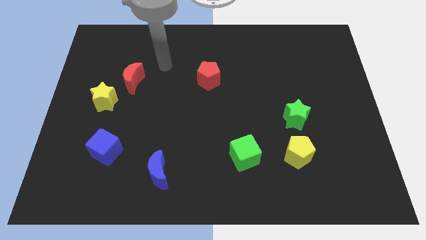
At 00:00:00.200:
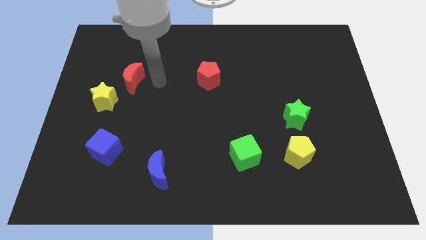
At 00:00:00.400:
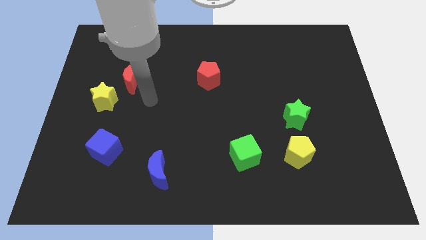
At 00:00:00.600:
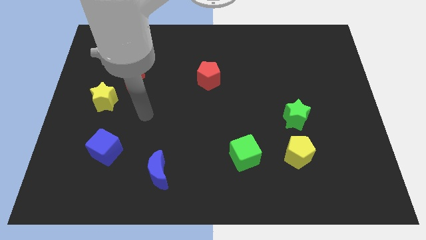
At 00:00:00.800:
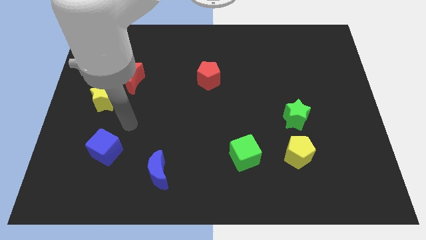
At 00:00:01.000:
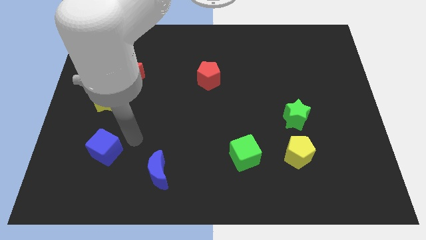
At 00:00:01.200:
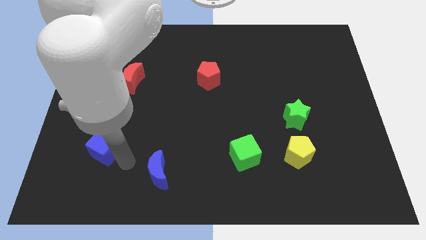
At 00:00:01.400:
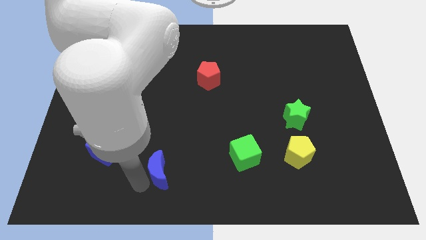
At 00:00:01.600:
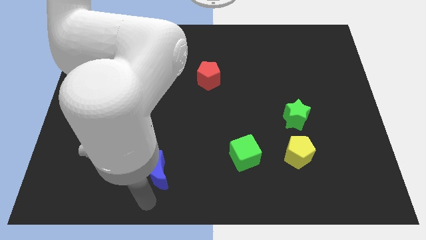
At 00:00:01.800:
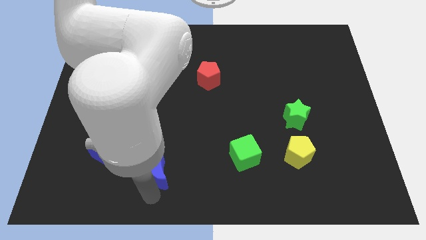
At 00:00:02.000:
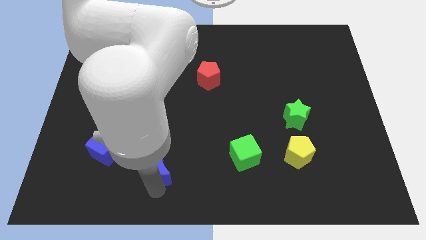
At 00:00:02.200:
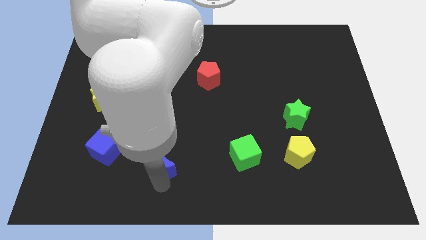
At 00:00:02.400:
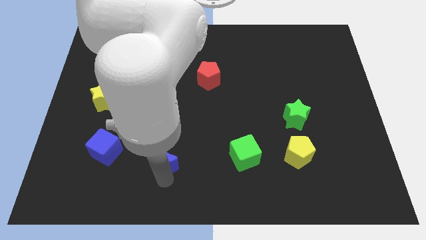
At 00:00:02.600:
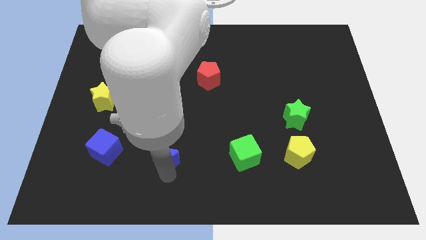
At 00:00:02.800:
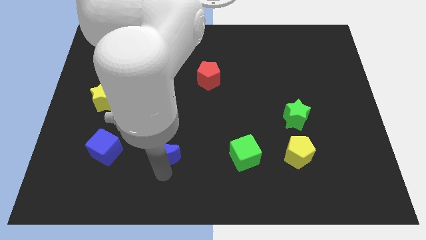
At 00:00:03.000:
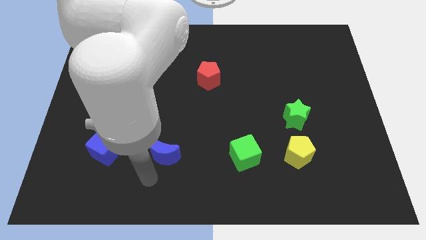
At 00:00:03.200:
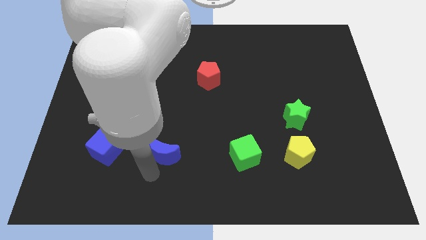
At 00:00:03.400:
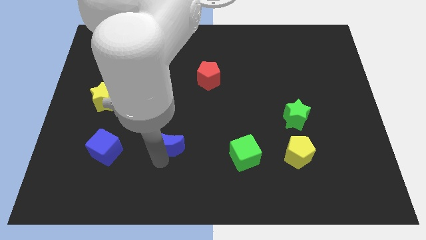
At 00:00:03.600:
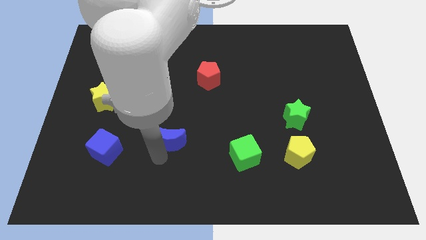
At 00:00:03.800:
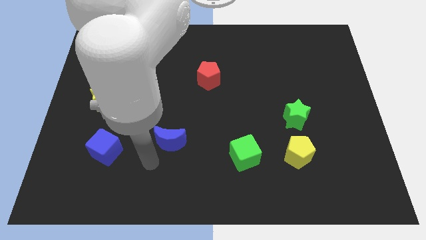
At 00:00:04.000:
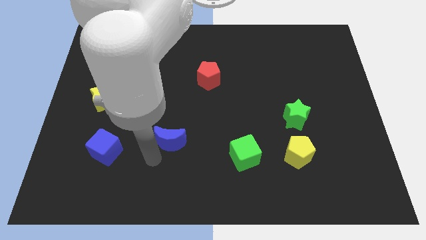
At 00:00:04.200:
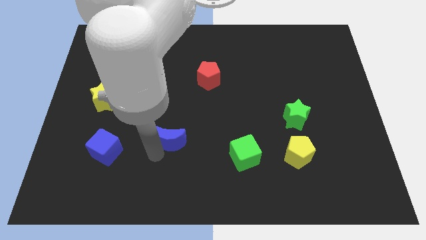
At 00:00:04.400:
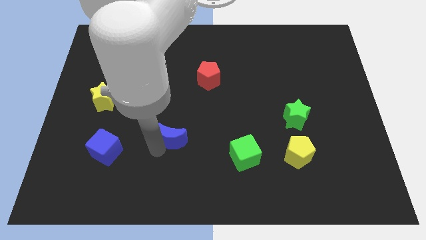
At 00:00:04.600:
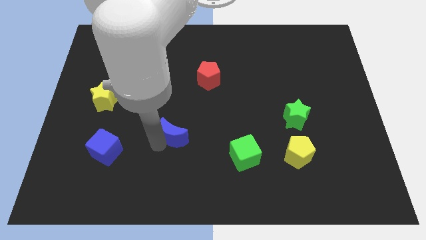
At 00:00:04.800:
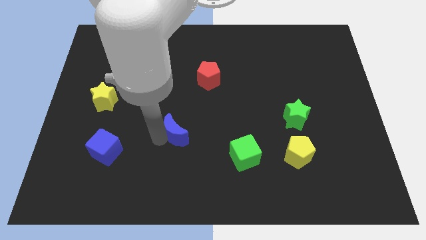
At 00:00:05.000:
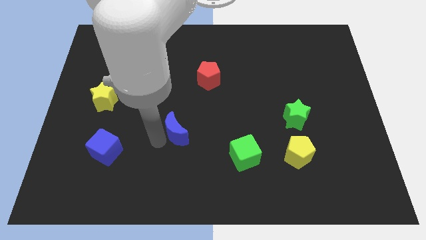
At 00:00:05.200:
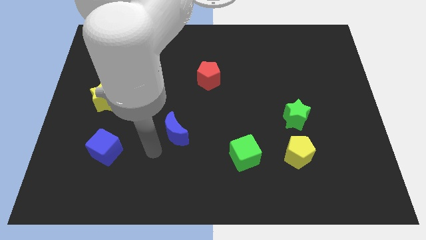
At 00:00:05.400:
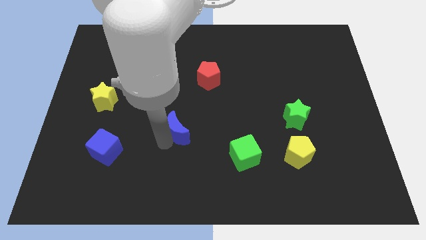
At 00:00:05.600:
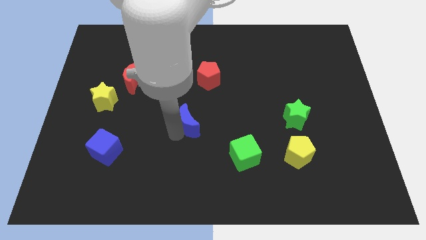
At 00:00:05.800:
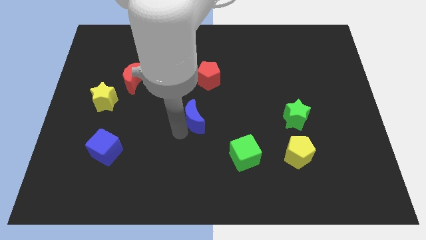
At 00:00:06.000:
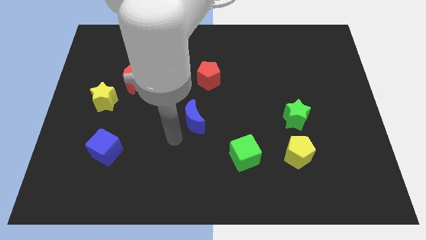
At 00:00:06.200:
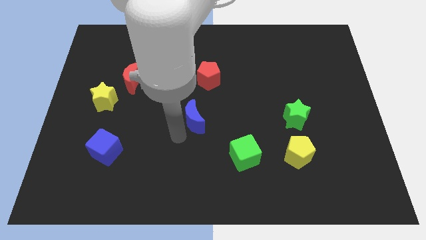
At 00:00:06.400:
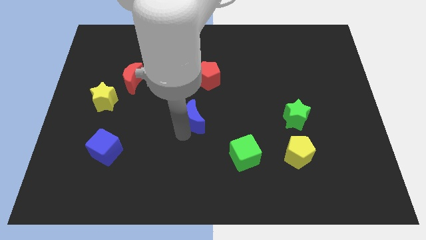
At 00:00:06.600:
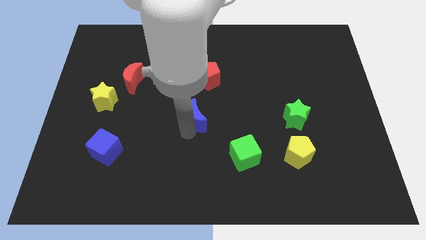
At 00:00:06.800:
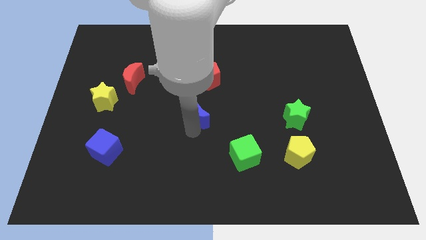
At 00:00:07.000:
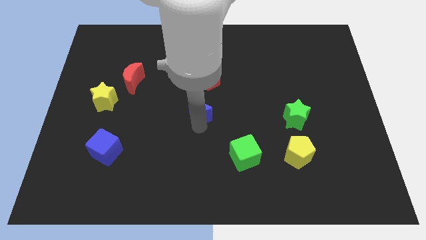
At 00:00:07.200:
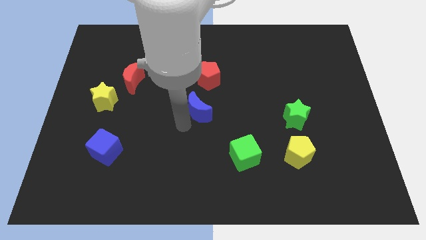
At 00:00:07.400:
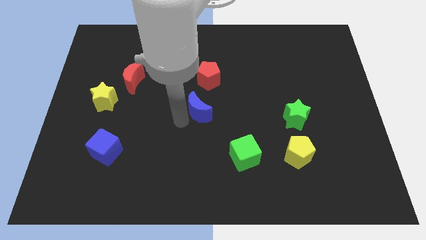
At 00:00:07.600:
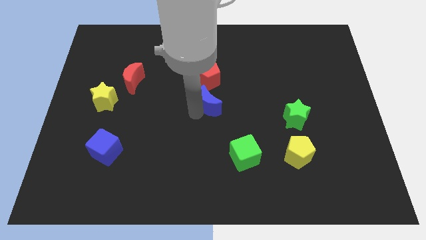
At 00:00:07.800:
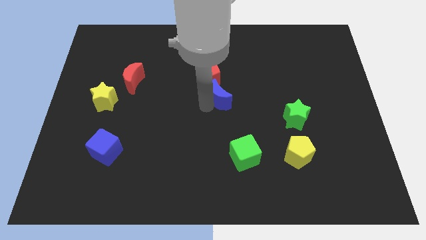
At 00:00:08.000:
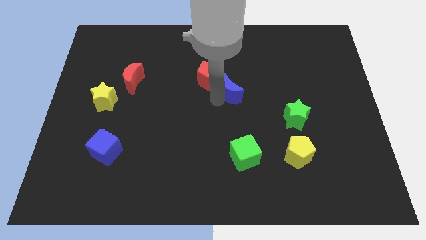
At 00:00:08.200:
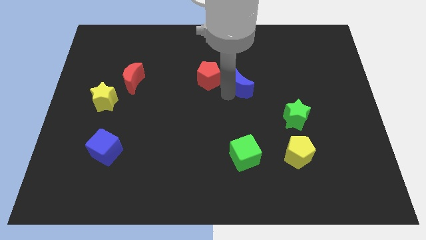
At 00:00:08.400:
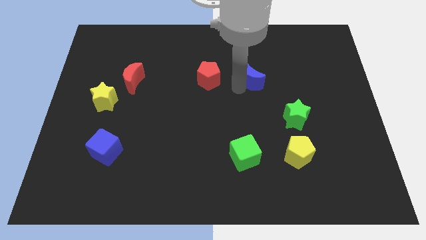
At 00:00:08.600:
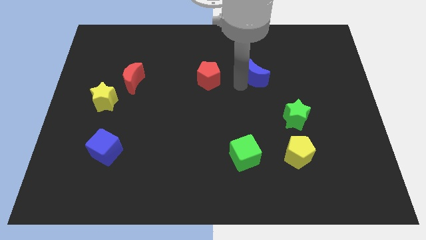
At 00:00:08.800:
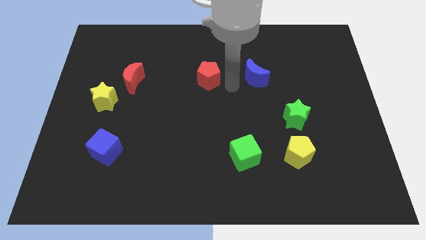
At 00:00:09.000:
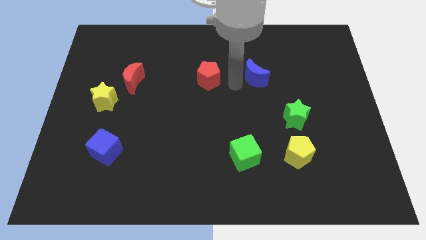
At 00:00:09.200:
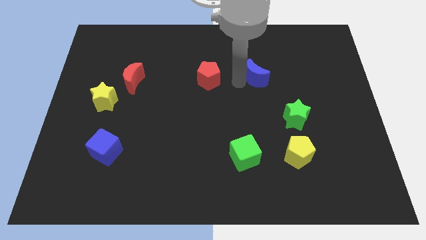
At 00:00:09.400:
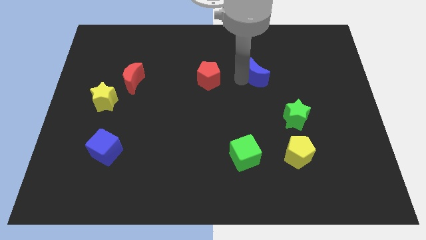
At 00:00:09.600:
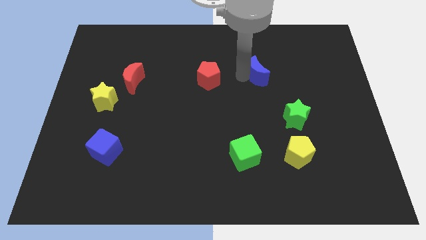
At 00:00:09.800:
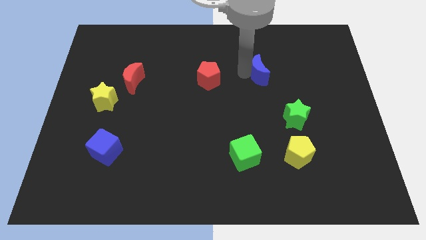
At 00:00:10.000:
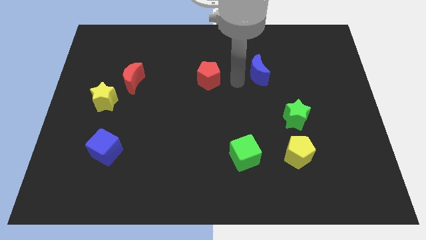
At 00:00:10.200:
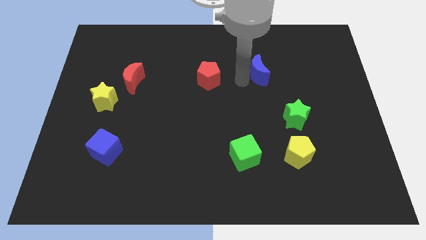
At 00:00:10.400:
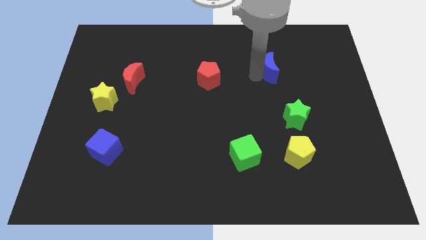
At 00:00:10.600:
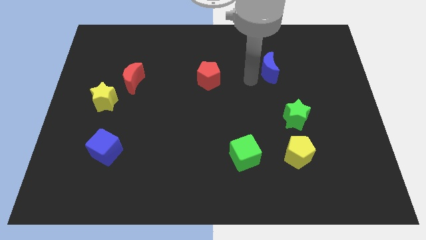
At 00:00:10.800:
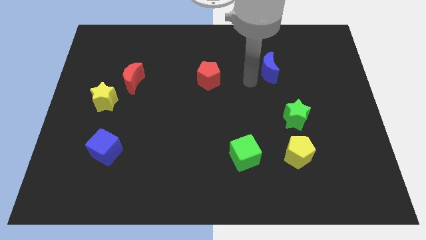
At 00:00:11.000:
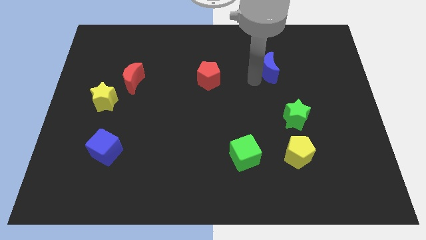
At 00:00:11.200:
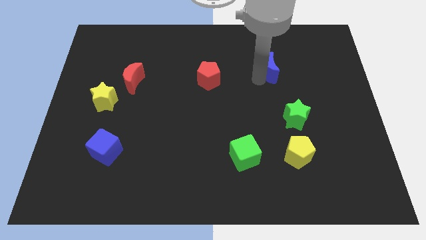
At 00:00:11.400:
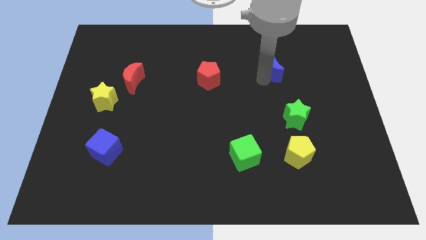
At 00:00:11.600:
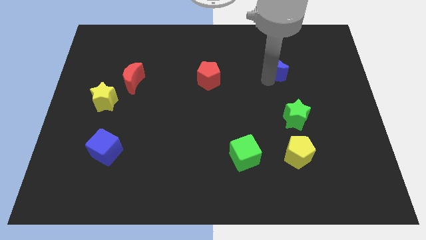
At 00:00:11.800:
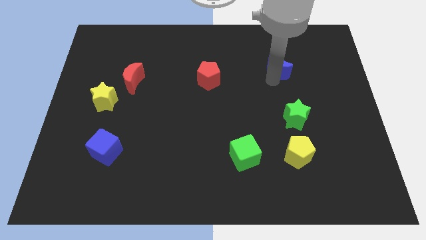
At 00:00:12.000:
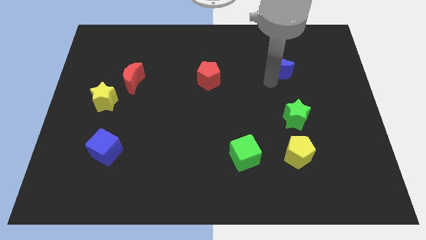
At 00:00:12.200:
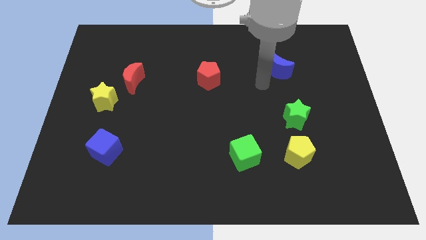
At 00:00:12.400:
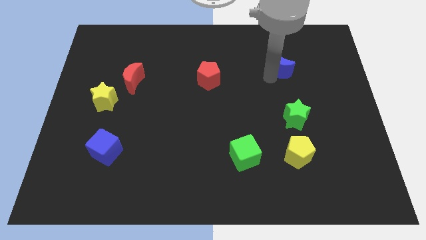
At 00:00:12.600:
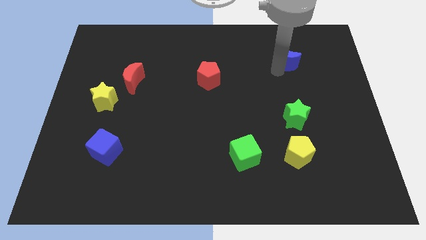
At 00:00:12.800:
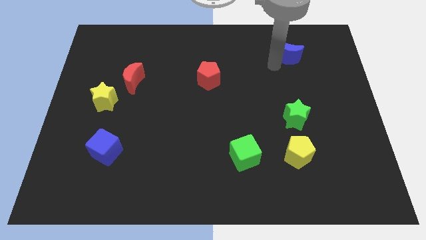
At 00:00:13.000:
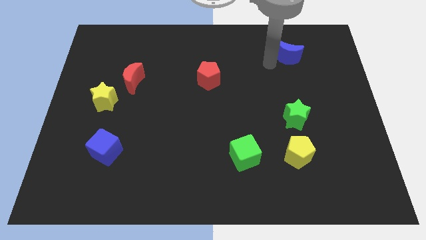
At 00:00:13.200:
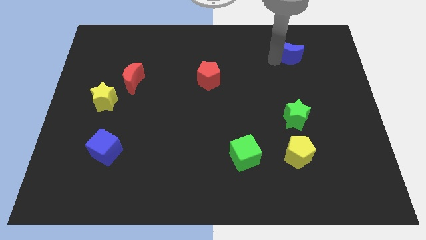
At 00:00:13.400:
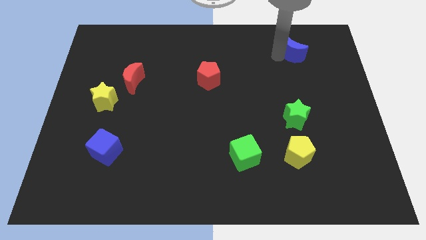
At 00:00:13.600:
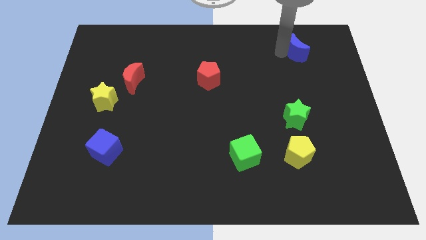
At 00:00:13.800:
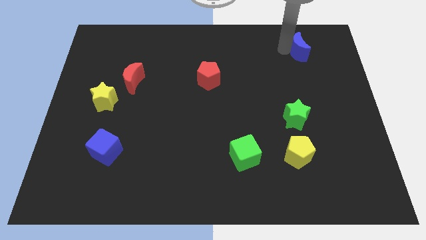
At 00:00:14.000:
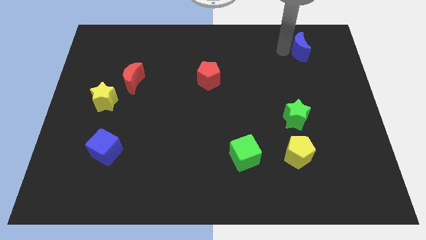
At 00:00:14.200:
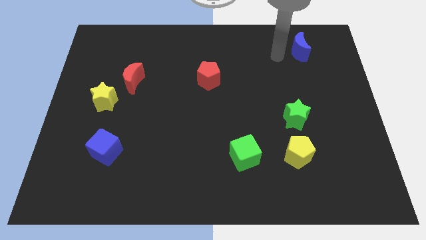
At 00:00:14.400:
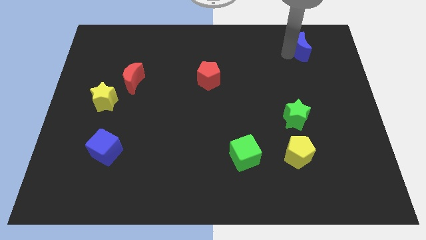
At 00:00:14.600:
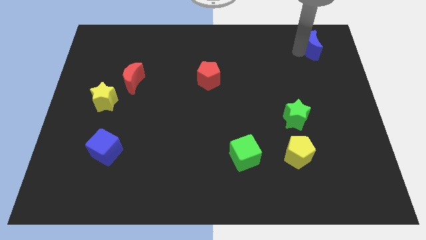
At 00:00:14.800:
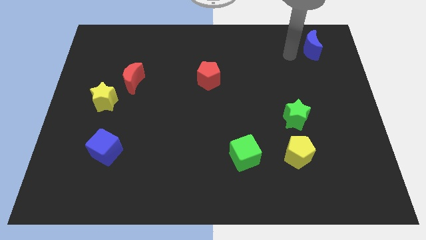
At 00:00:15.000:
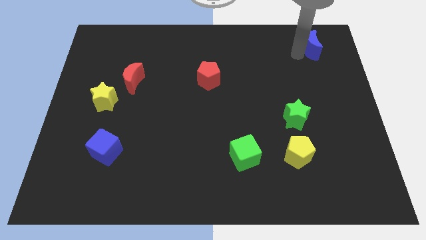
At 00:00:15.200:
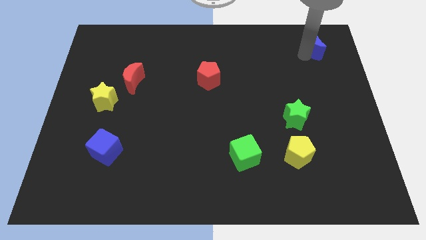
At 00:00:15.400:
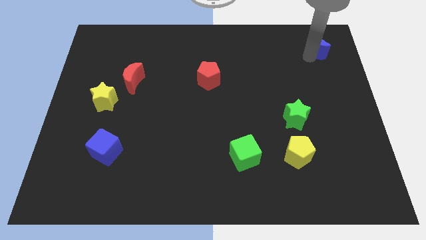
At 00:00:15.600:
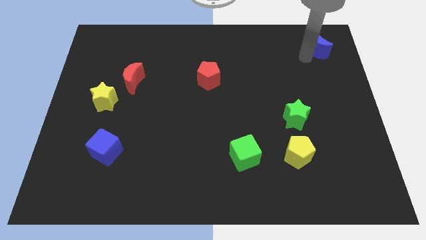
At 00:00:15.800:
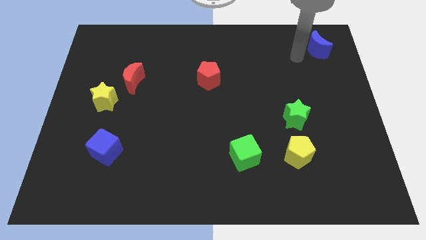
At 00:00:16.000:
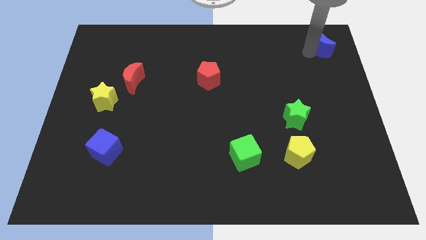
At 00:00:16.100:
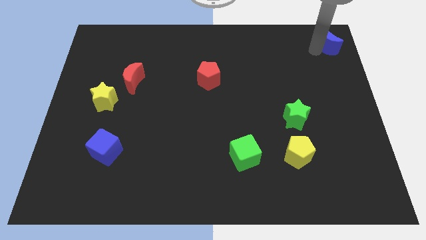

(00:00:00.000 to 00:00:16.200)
push the blue moon to the top right of the board
